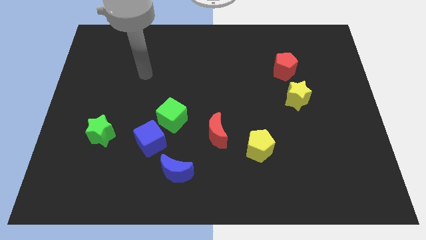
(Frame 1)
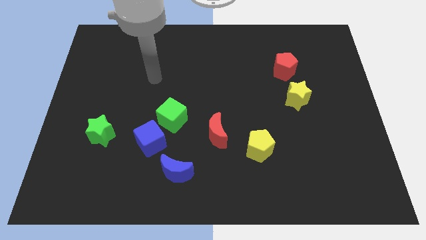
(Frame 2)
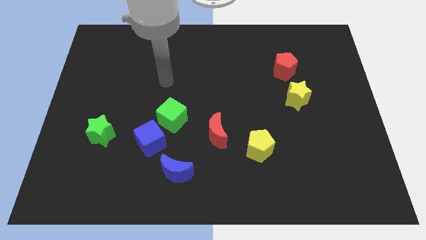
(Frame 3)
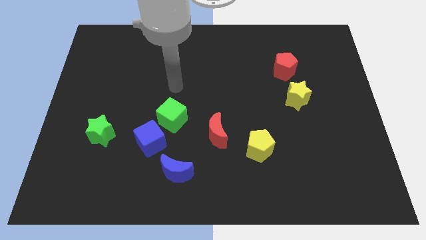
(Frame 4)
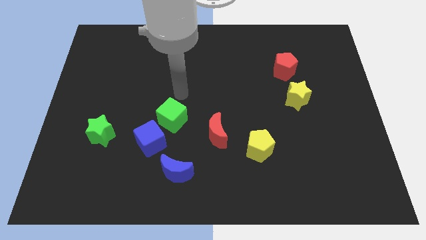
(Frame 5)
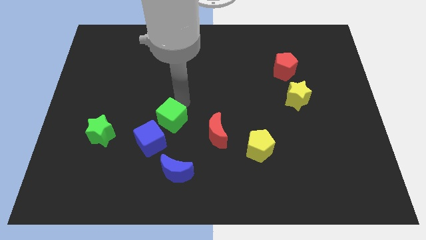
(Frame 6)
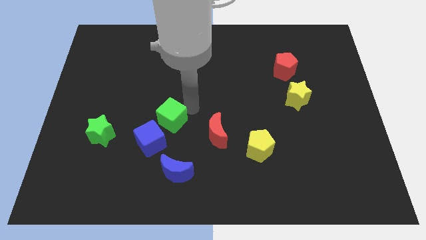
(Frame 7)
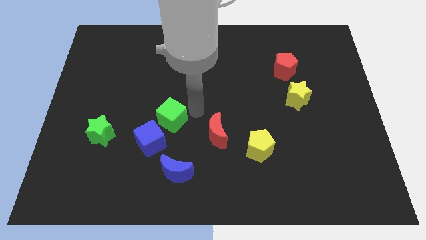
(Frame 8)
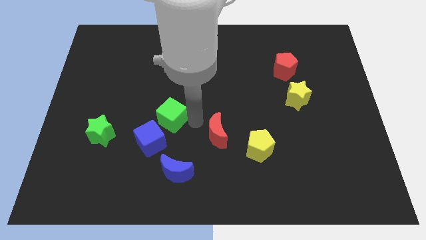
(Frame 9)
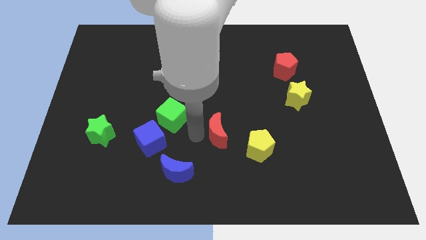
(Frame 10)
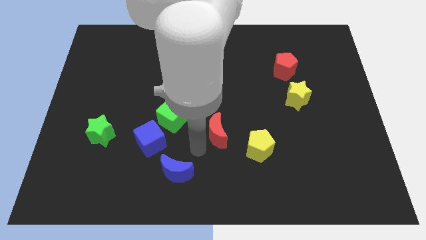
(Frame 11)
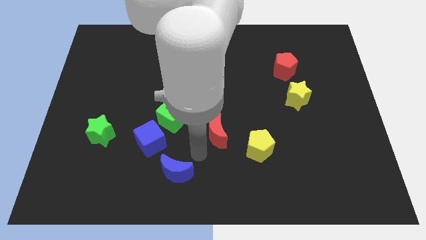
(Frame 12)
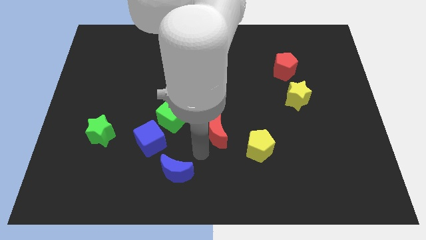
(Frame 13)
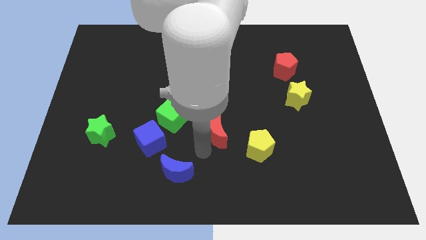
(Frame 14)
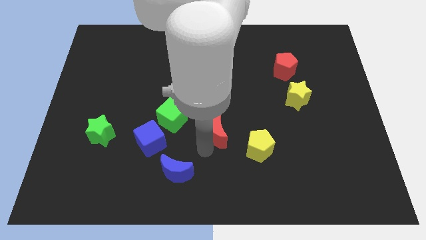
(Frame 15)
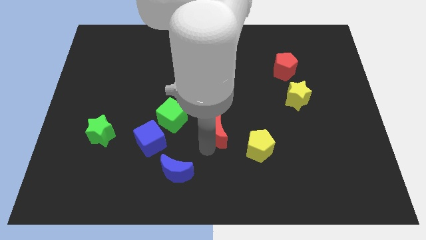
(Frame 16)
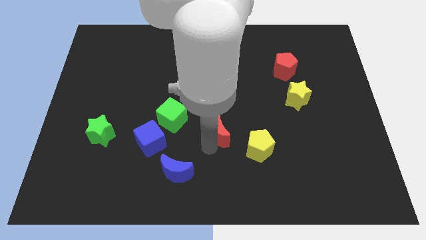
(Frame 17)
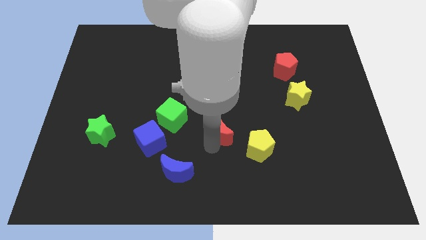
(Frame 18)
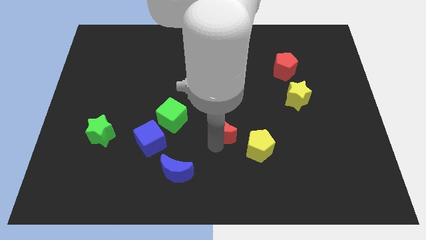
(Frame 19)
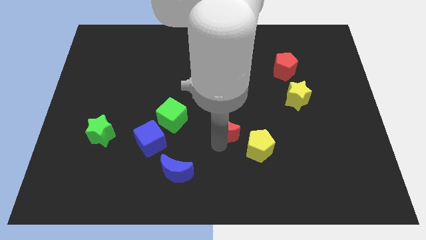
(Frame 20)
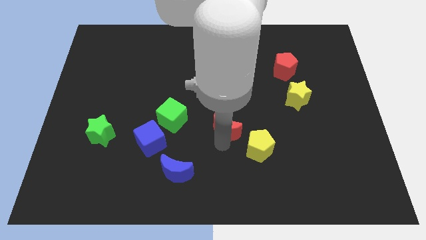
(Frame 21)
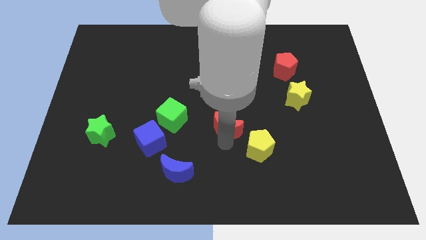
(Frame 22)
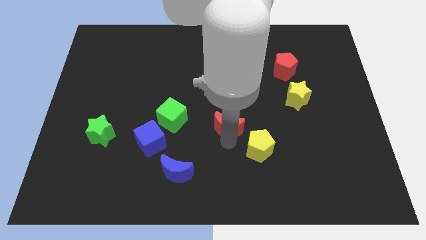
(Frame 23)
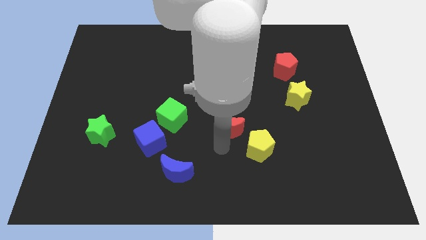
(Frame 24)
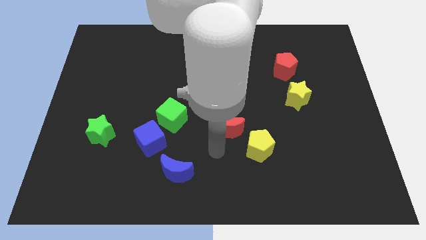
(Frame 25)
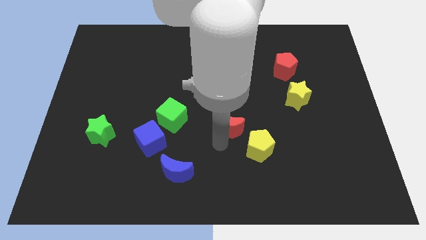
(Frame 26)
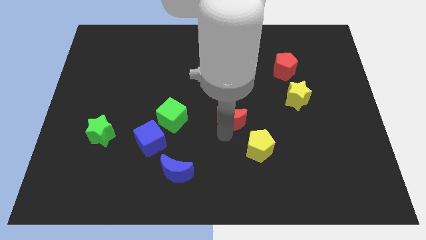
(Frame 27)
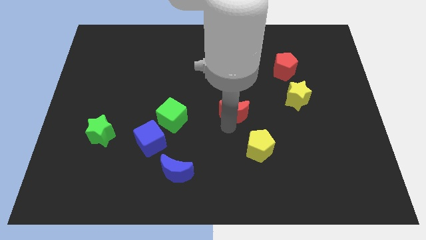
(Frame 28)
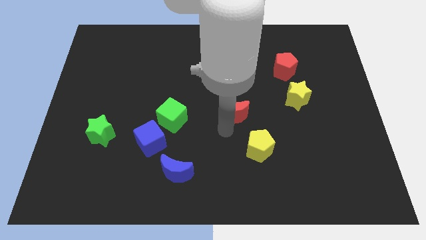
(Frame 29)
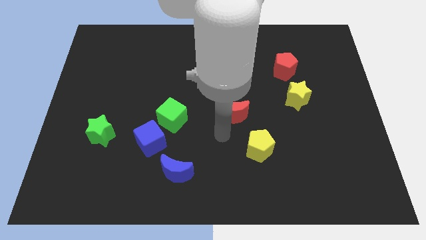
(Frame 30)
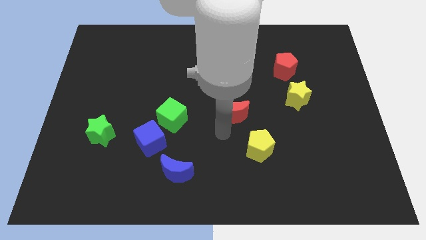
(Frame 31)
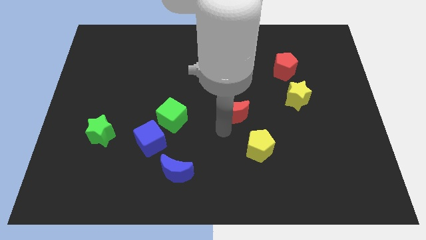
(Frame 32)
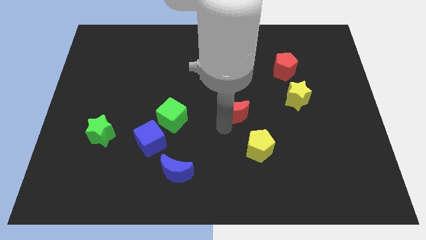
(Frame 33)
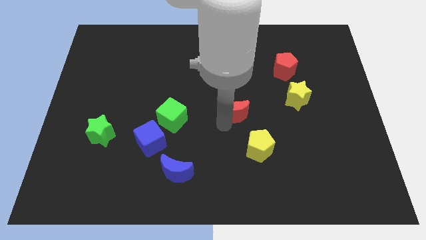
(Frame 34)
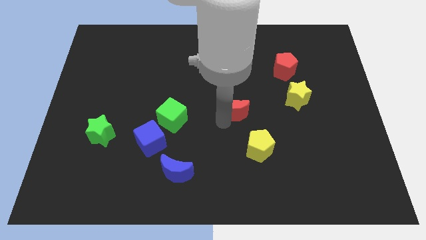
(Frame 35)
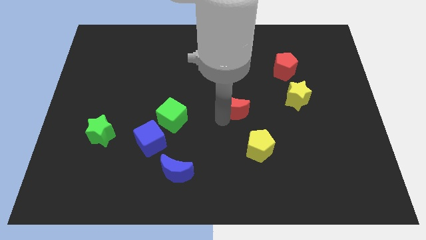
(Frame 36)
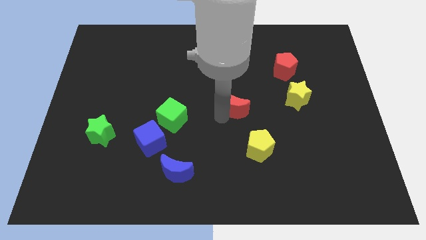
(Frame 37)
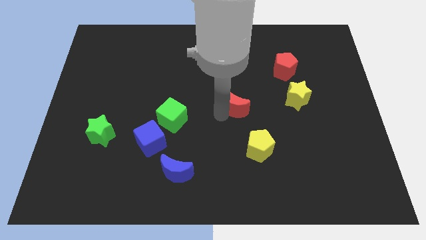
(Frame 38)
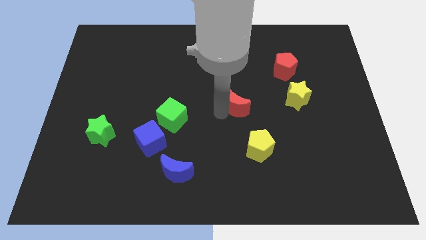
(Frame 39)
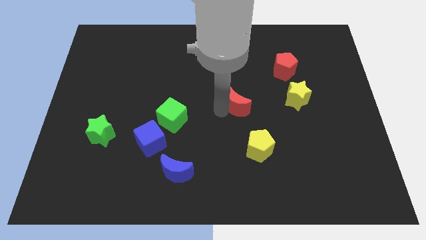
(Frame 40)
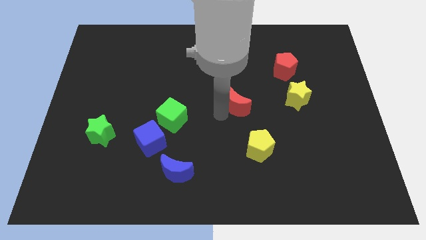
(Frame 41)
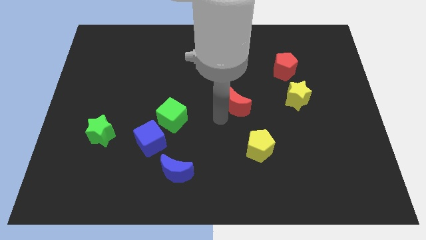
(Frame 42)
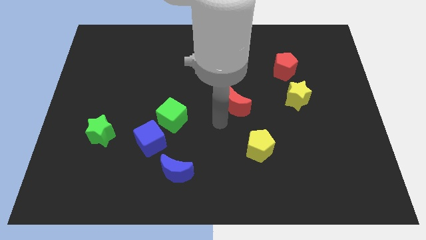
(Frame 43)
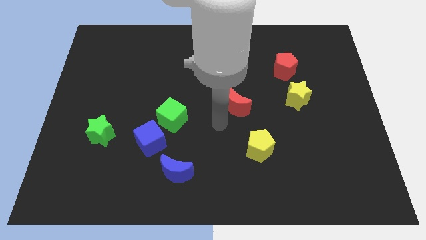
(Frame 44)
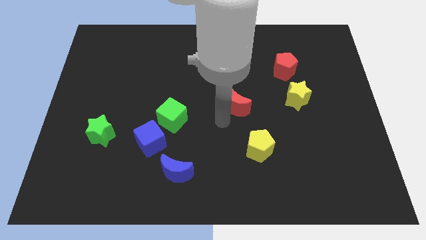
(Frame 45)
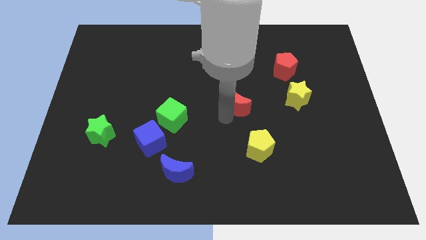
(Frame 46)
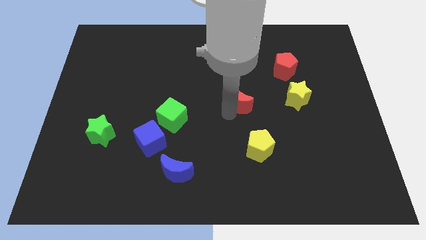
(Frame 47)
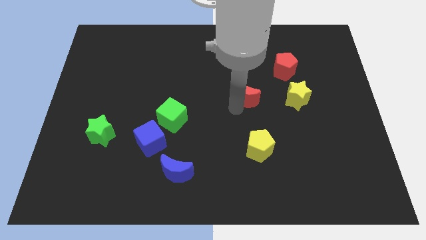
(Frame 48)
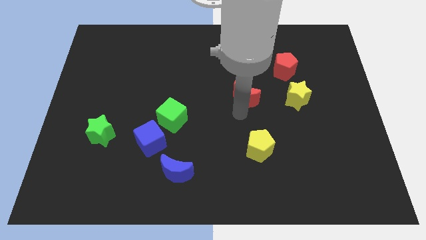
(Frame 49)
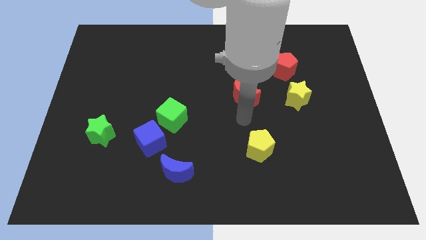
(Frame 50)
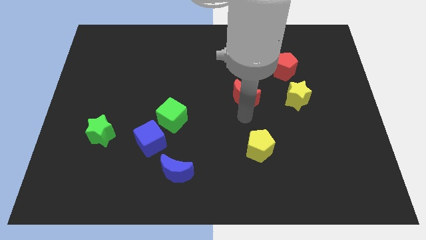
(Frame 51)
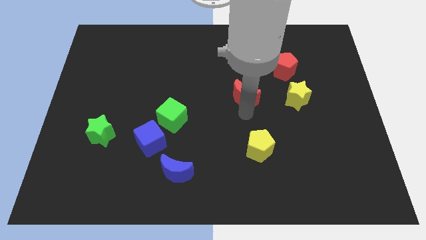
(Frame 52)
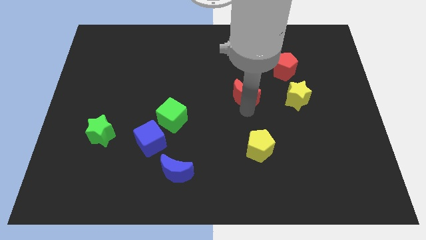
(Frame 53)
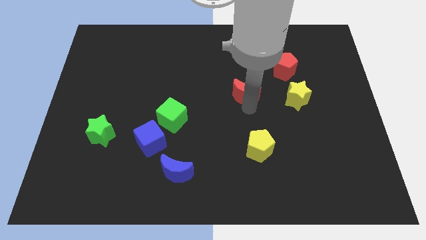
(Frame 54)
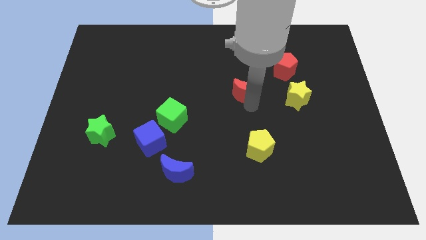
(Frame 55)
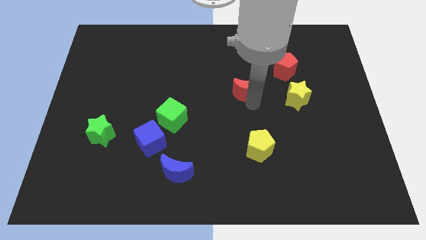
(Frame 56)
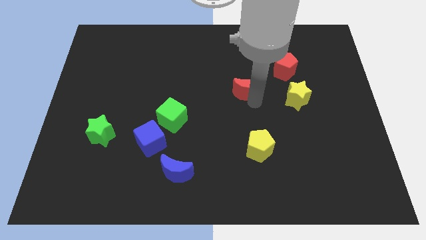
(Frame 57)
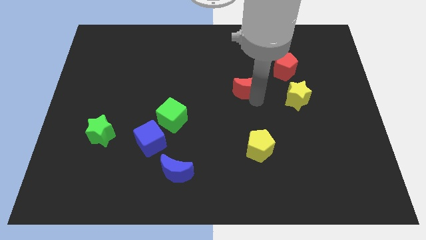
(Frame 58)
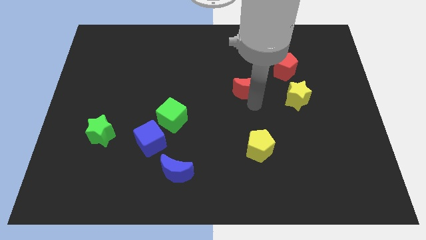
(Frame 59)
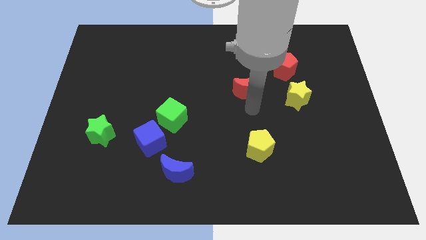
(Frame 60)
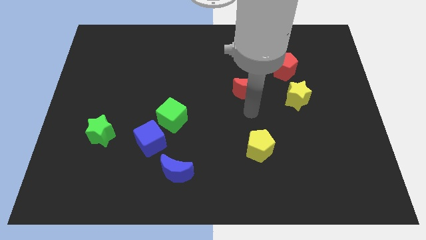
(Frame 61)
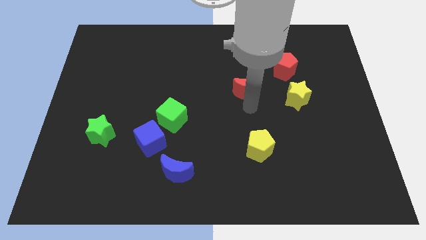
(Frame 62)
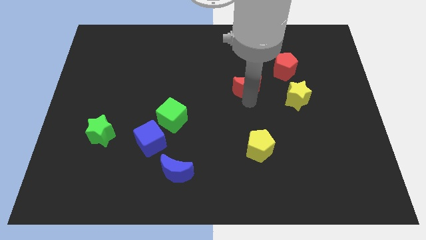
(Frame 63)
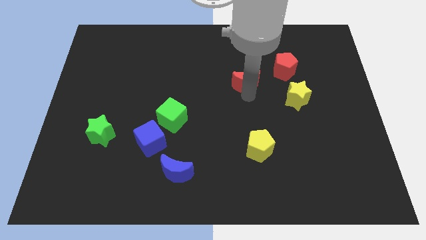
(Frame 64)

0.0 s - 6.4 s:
push the red moon left of the red pentagon
